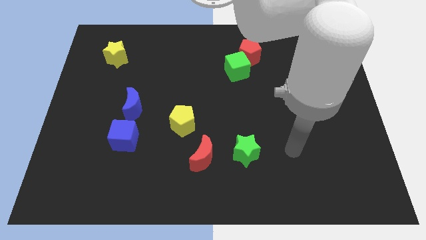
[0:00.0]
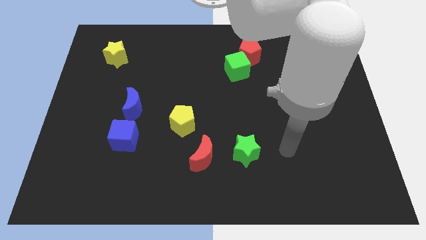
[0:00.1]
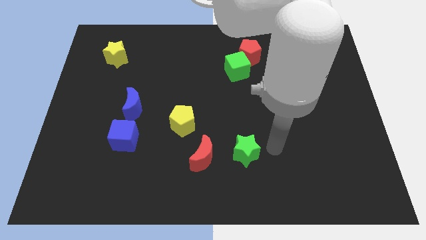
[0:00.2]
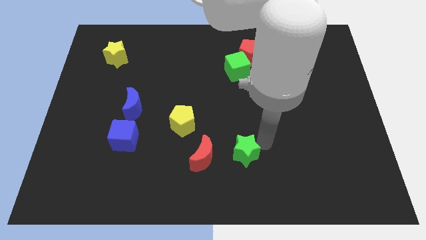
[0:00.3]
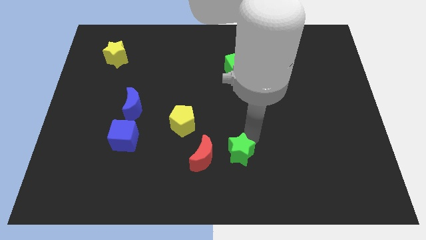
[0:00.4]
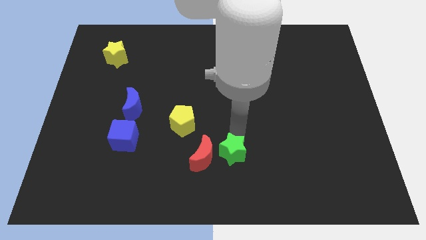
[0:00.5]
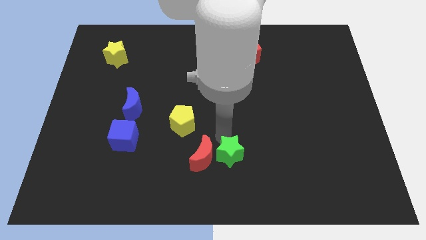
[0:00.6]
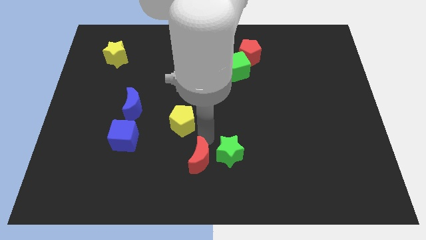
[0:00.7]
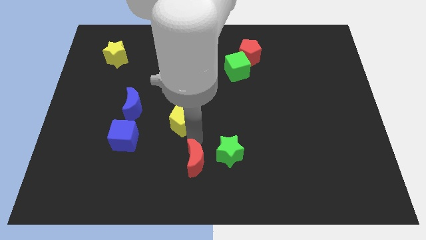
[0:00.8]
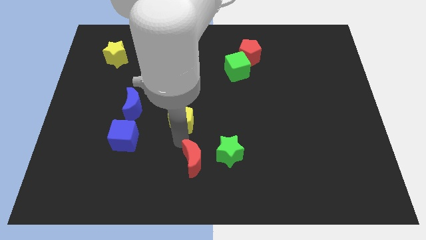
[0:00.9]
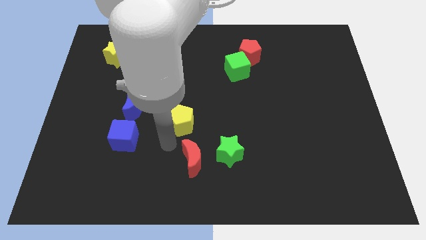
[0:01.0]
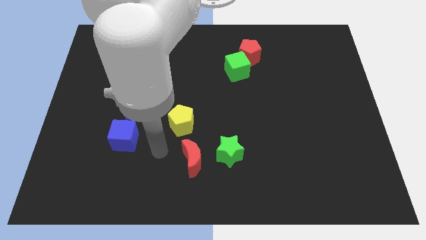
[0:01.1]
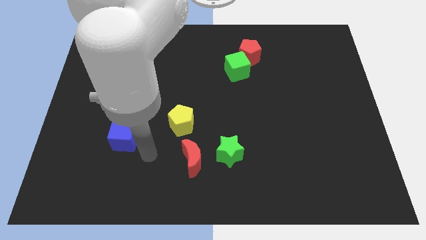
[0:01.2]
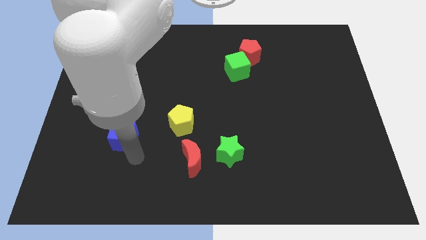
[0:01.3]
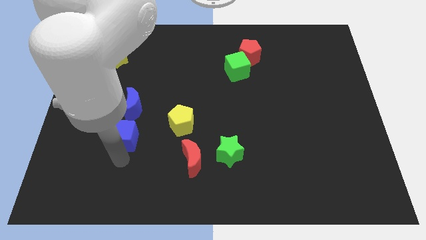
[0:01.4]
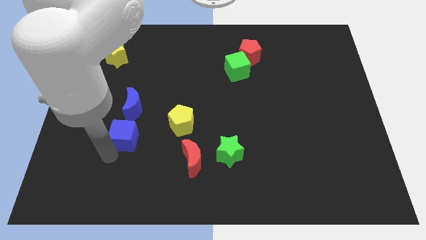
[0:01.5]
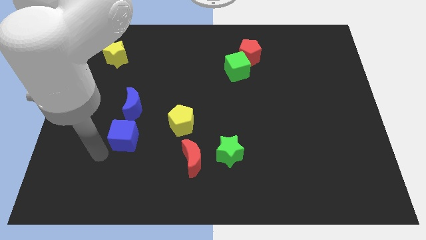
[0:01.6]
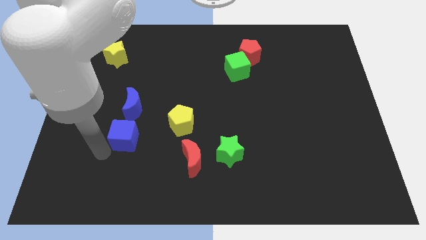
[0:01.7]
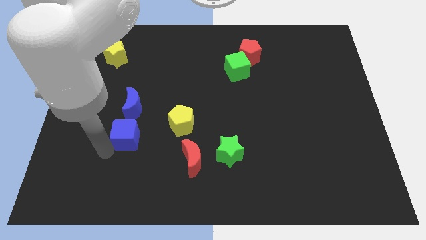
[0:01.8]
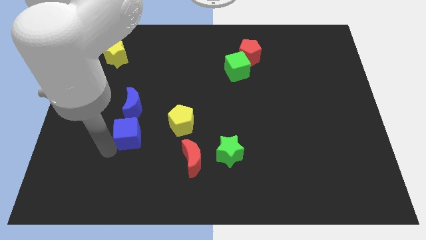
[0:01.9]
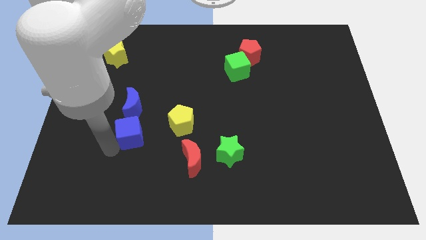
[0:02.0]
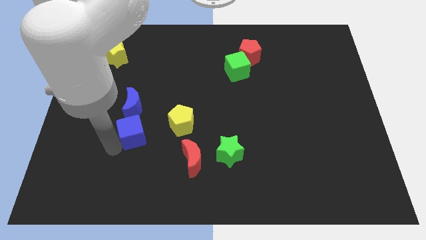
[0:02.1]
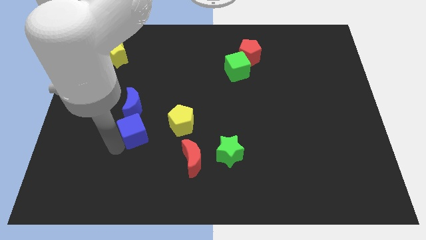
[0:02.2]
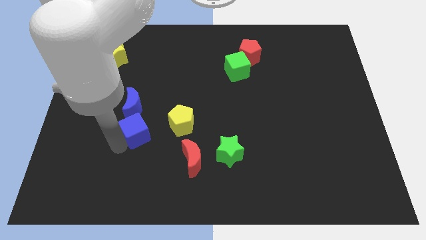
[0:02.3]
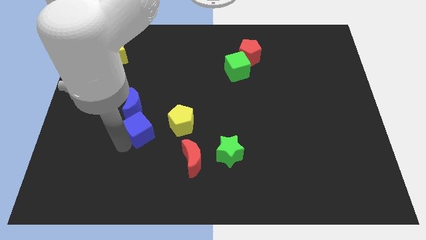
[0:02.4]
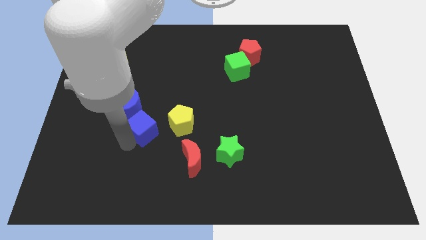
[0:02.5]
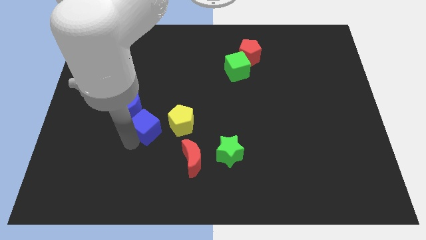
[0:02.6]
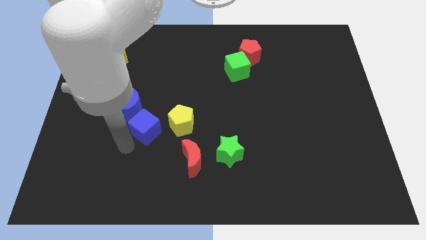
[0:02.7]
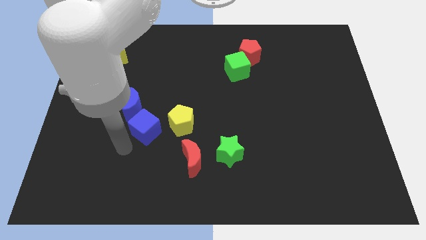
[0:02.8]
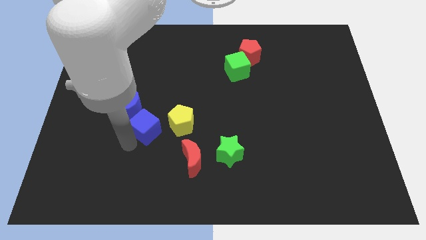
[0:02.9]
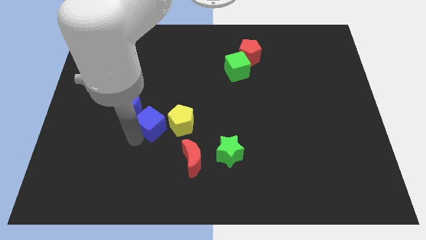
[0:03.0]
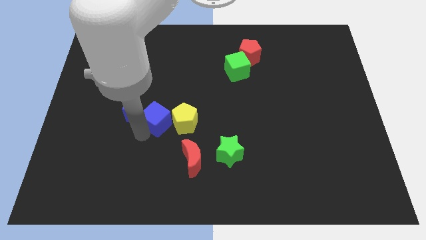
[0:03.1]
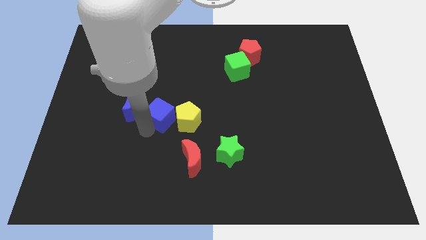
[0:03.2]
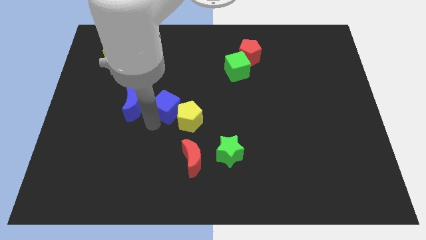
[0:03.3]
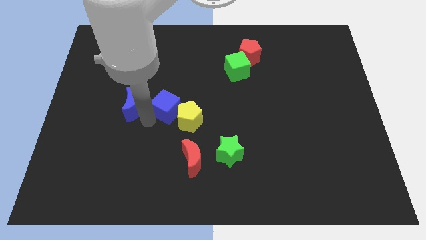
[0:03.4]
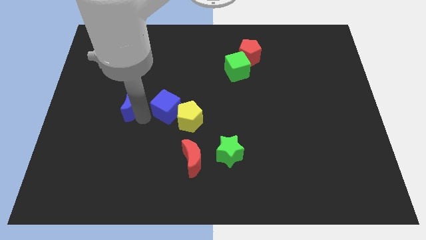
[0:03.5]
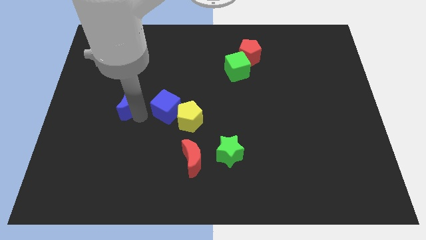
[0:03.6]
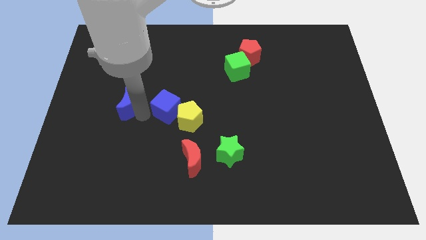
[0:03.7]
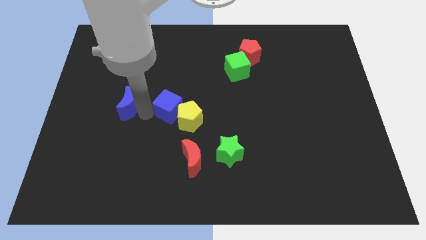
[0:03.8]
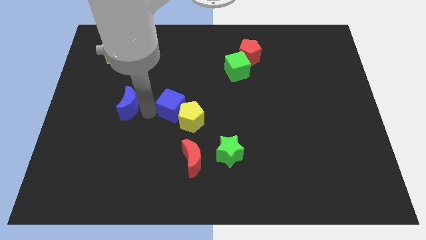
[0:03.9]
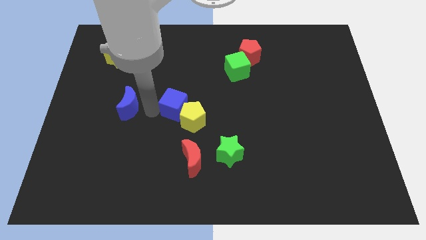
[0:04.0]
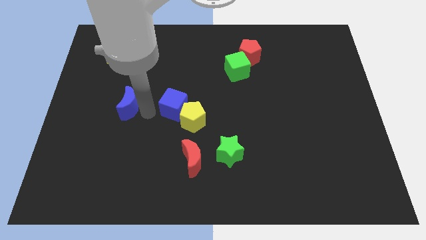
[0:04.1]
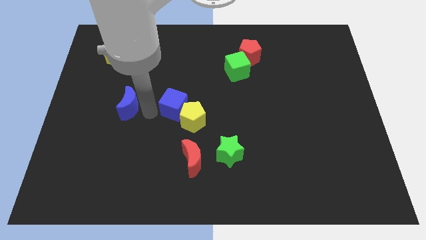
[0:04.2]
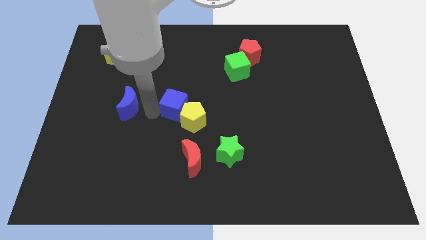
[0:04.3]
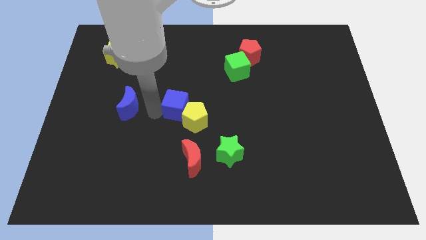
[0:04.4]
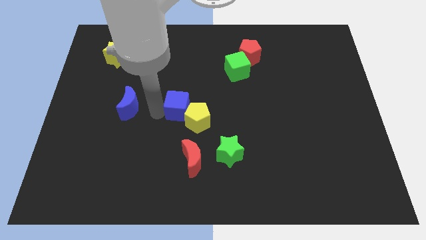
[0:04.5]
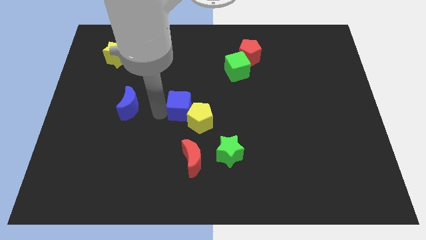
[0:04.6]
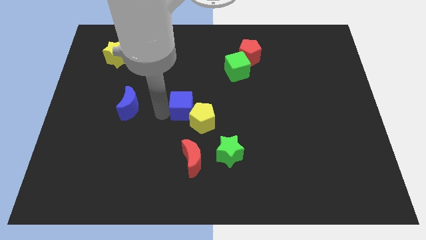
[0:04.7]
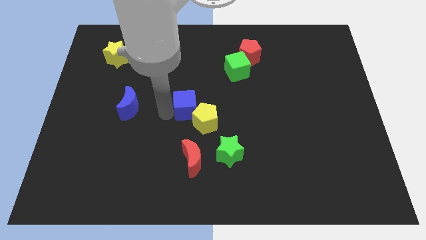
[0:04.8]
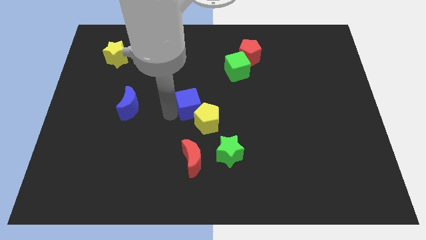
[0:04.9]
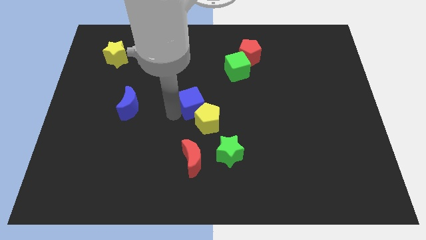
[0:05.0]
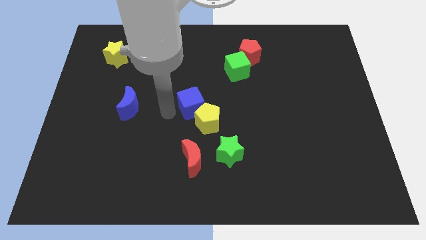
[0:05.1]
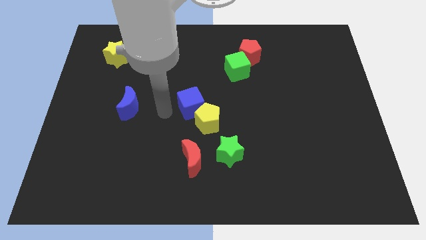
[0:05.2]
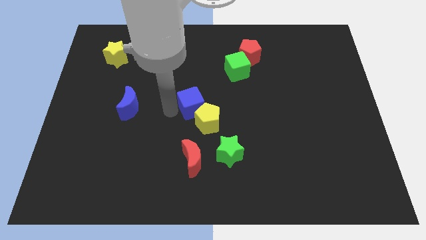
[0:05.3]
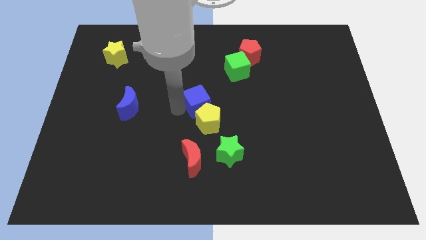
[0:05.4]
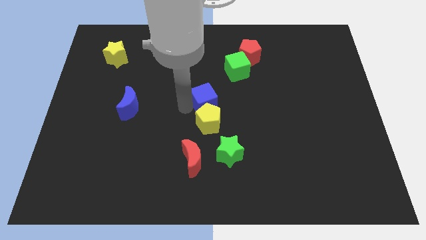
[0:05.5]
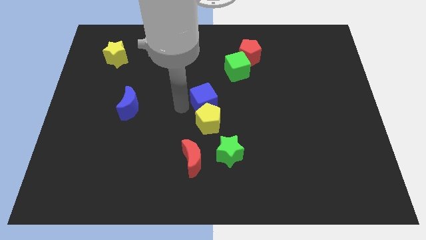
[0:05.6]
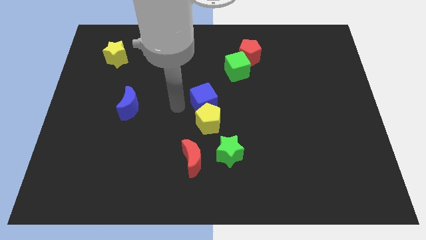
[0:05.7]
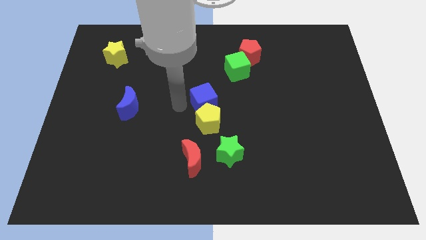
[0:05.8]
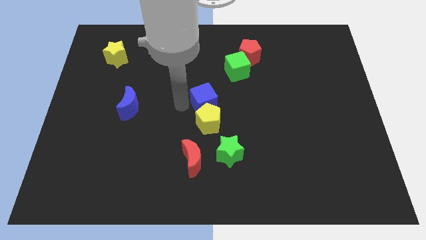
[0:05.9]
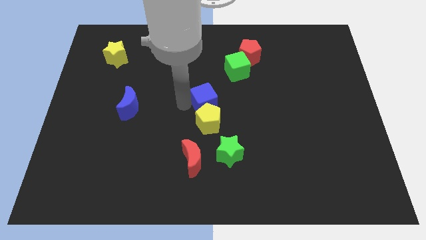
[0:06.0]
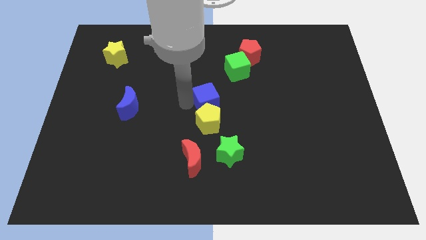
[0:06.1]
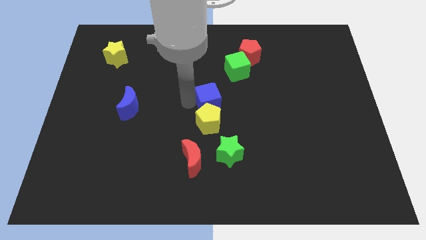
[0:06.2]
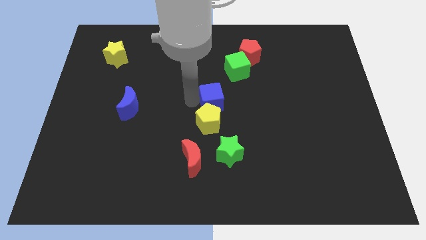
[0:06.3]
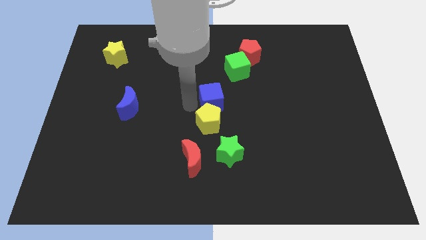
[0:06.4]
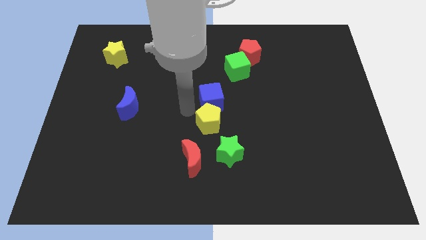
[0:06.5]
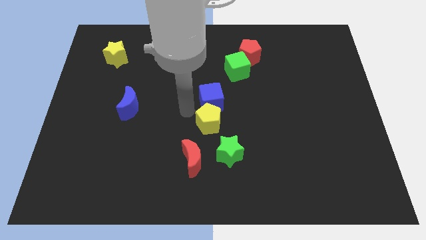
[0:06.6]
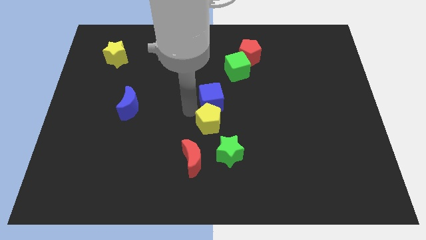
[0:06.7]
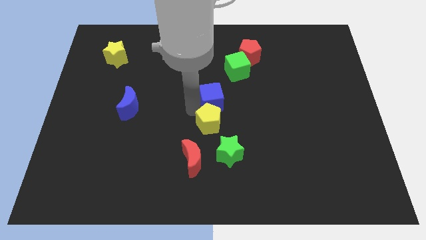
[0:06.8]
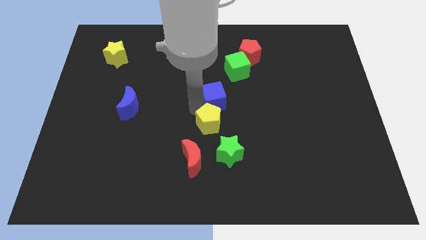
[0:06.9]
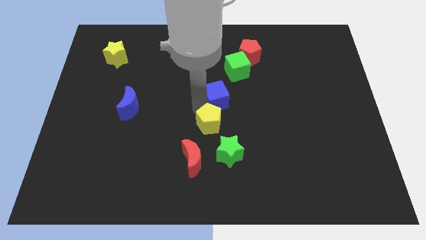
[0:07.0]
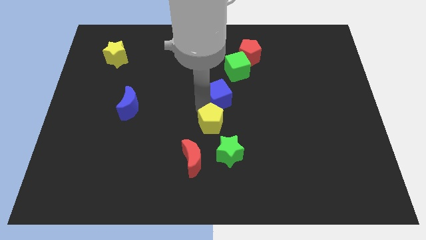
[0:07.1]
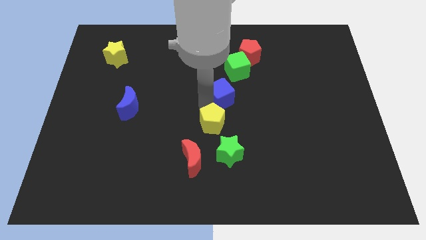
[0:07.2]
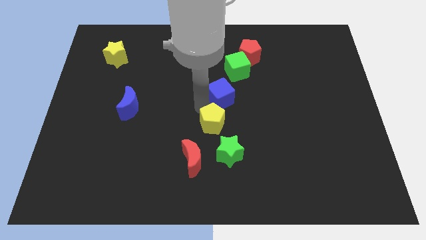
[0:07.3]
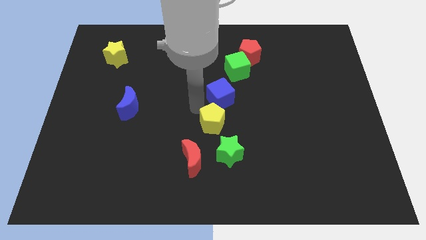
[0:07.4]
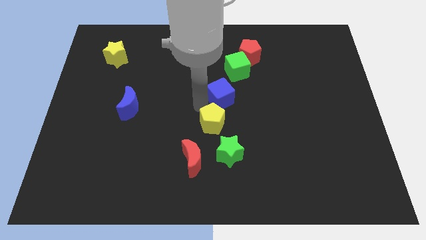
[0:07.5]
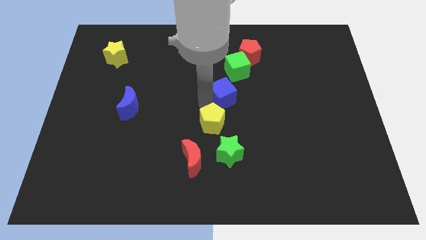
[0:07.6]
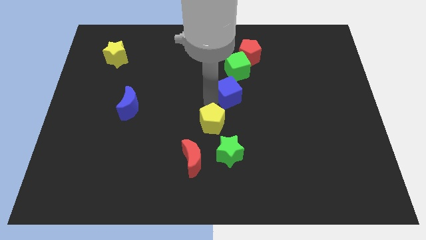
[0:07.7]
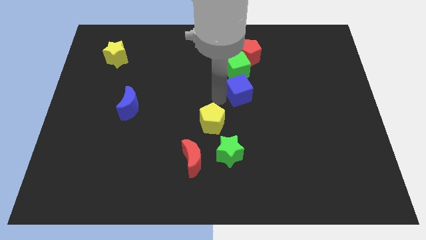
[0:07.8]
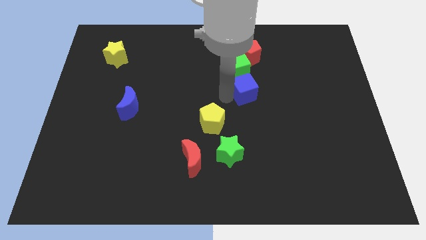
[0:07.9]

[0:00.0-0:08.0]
put the blue cube diagonally down and to the right of the green cube
